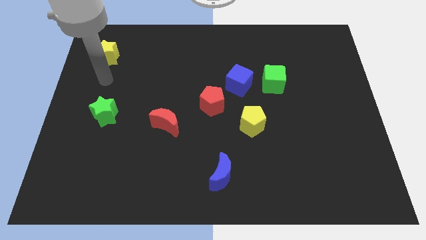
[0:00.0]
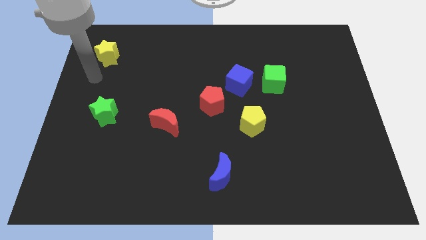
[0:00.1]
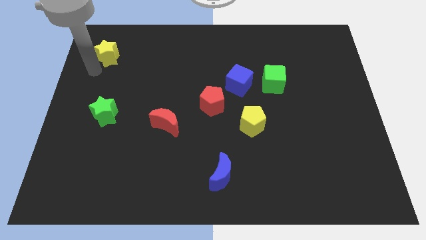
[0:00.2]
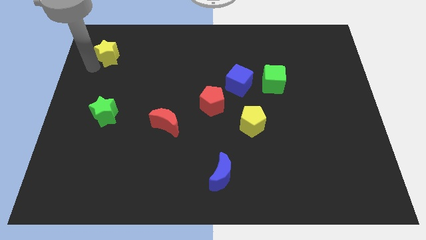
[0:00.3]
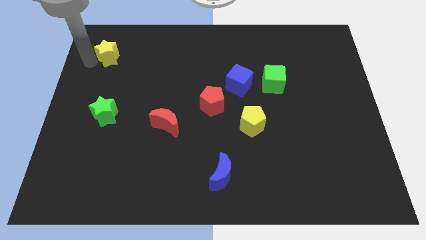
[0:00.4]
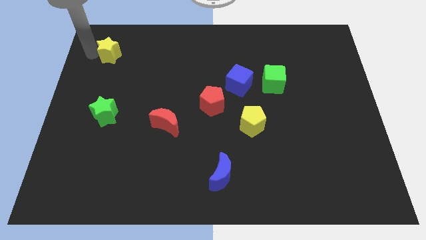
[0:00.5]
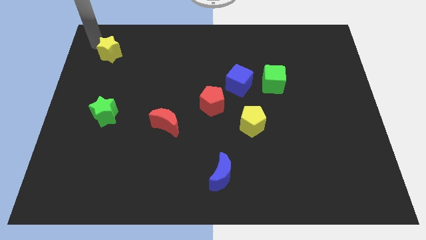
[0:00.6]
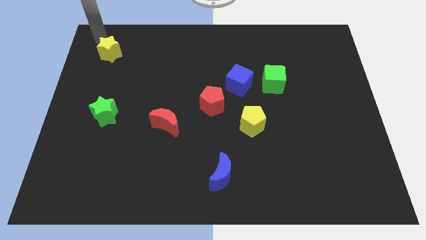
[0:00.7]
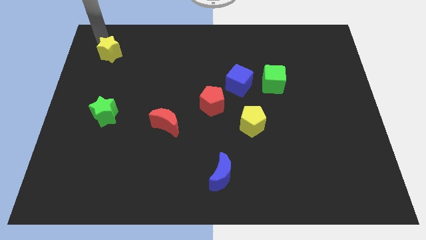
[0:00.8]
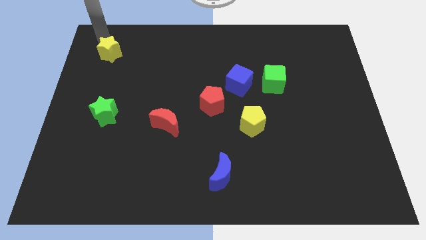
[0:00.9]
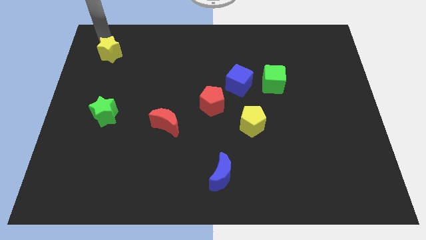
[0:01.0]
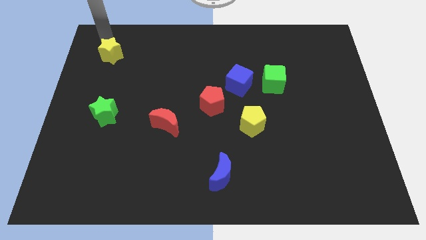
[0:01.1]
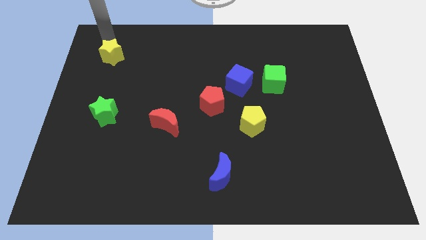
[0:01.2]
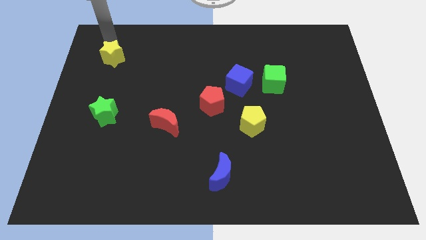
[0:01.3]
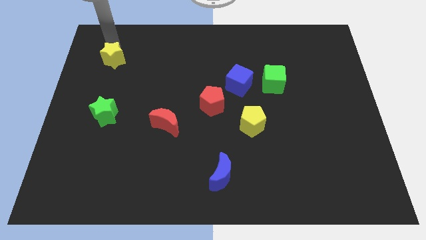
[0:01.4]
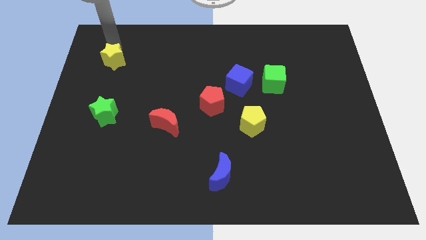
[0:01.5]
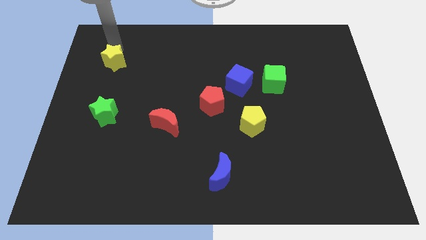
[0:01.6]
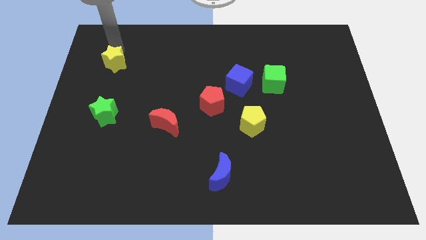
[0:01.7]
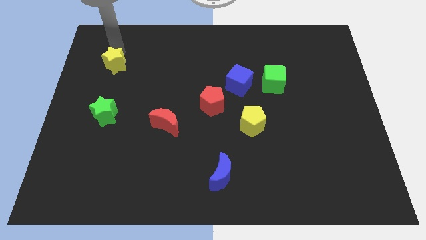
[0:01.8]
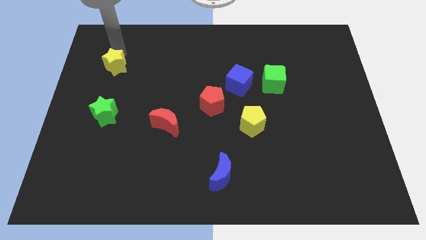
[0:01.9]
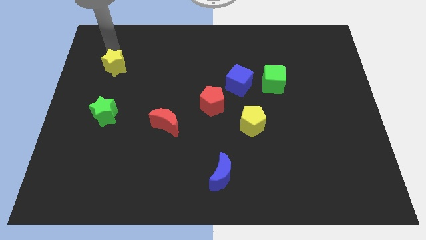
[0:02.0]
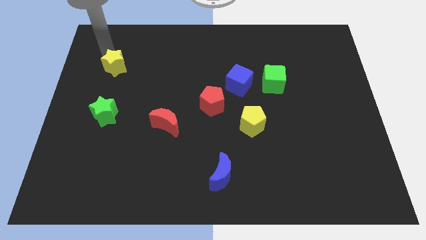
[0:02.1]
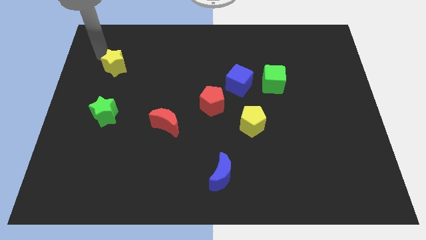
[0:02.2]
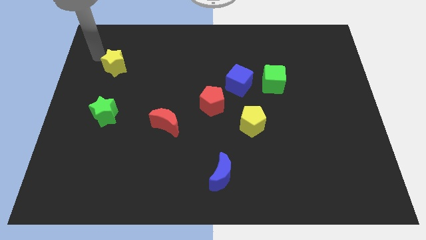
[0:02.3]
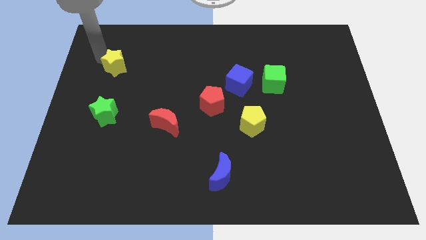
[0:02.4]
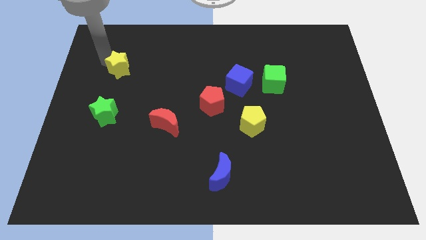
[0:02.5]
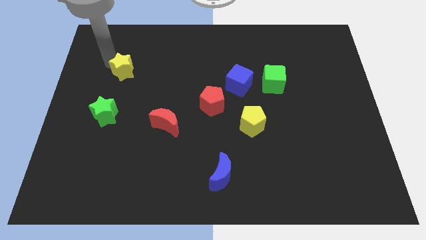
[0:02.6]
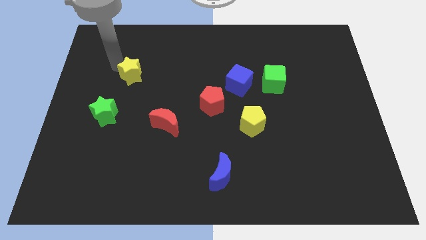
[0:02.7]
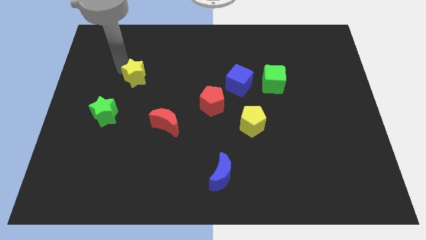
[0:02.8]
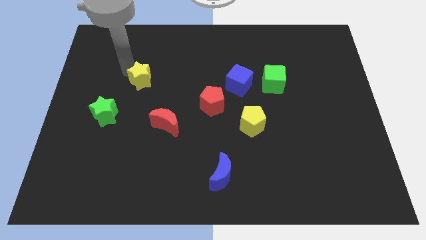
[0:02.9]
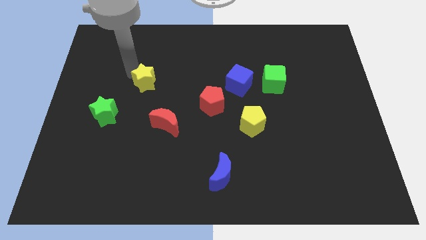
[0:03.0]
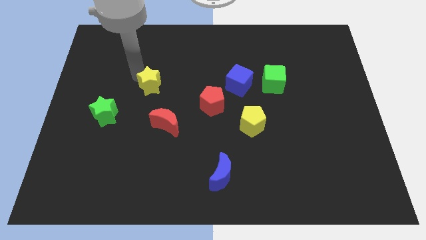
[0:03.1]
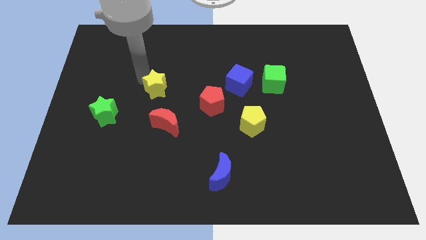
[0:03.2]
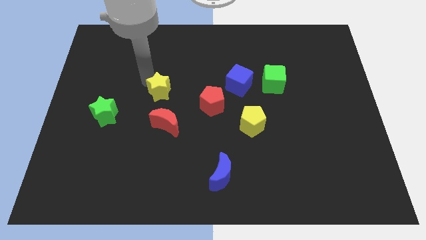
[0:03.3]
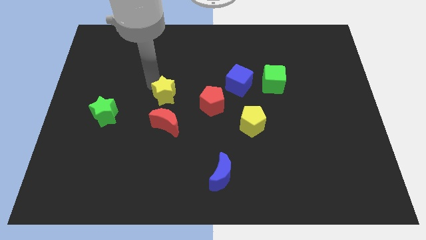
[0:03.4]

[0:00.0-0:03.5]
push the yellow star downwards and right

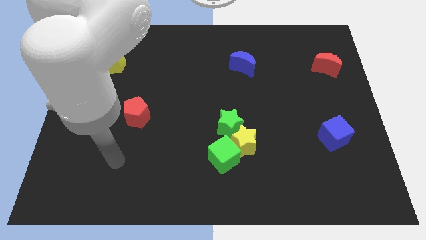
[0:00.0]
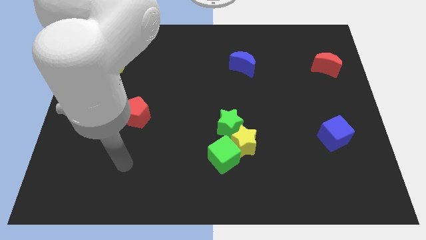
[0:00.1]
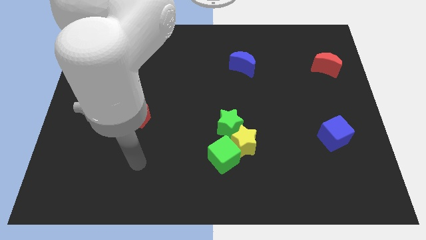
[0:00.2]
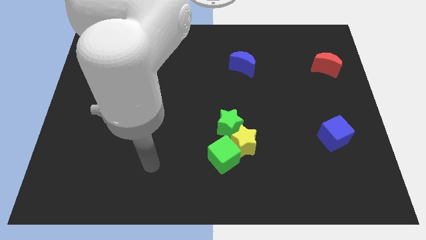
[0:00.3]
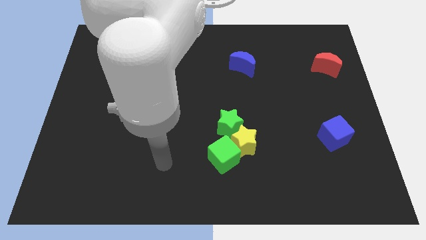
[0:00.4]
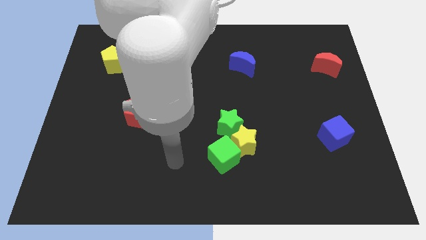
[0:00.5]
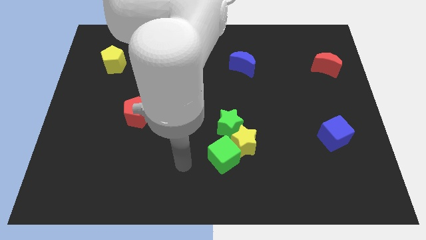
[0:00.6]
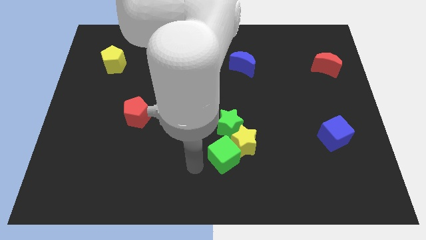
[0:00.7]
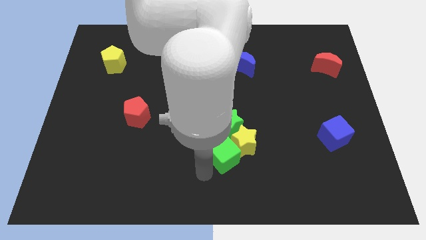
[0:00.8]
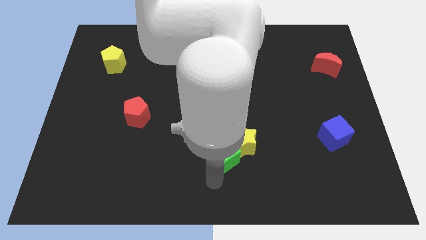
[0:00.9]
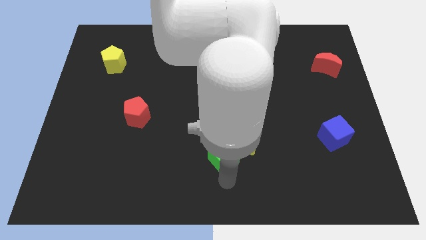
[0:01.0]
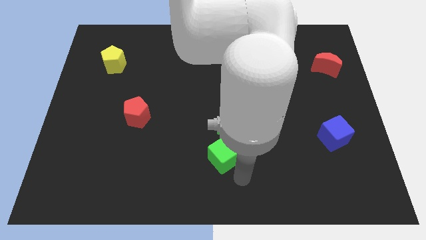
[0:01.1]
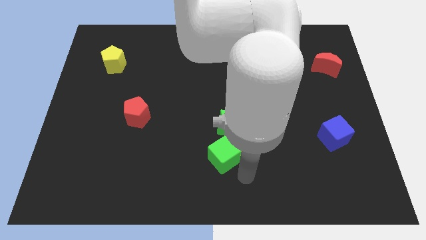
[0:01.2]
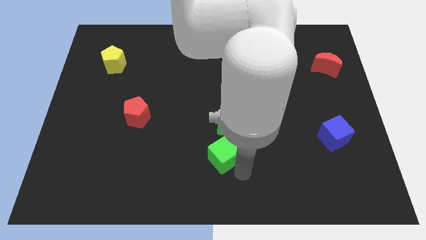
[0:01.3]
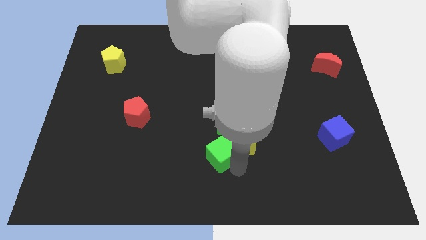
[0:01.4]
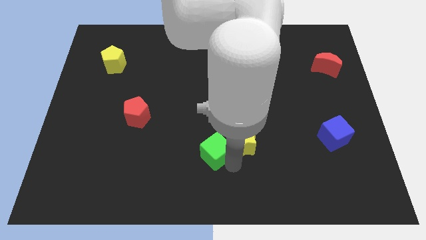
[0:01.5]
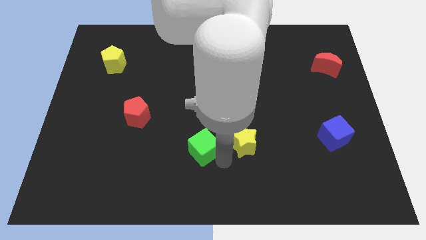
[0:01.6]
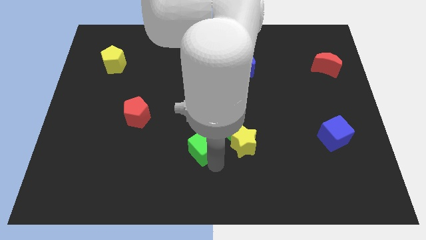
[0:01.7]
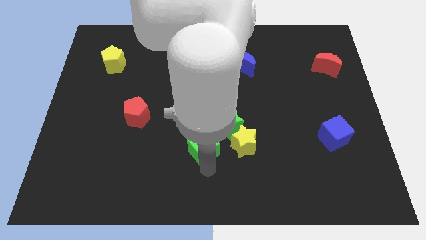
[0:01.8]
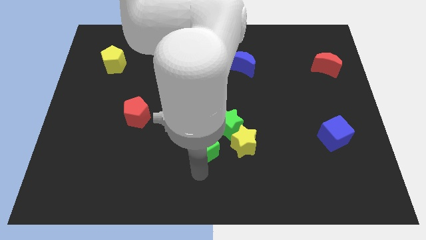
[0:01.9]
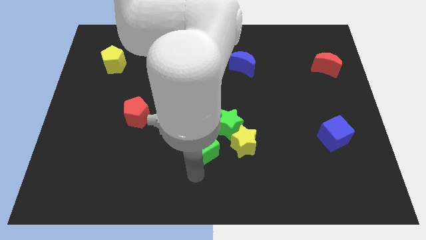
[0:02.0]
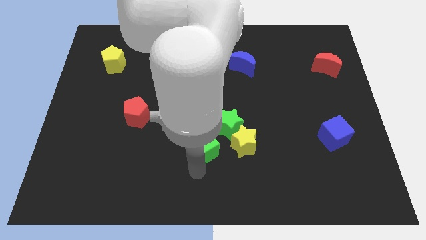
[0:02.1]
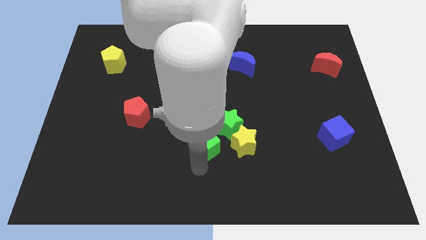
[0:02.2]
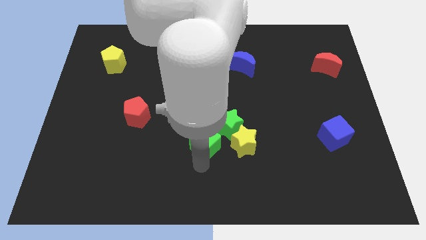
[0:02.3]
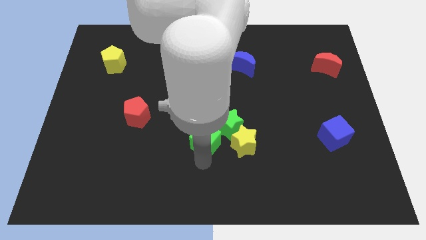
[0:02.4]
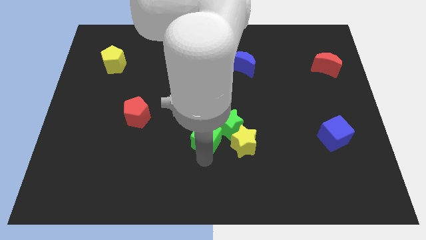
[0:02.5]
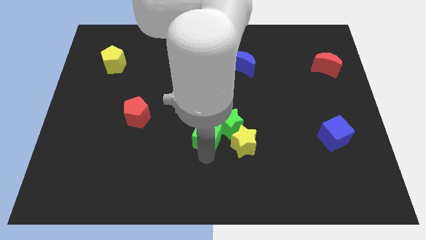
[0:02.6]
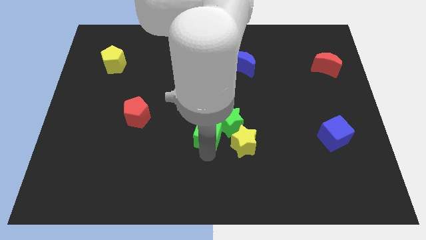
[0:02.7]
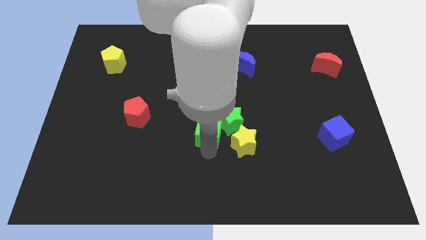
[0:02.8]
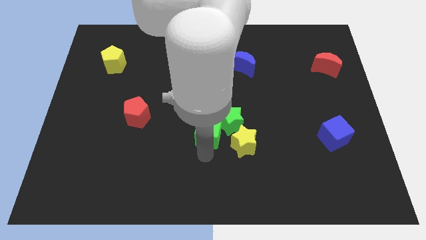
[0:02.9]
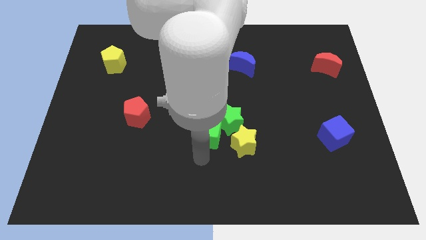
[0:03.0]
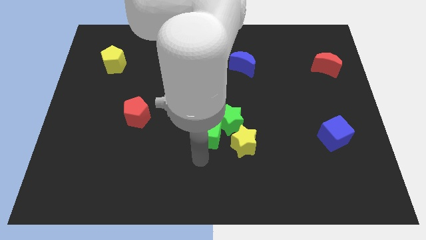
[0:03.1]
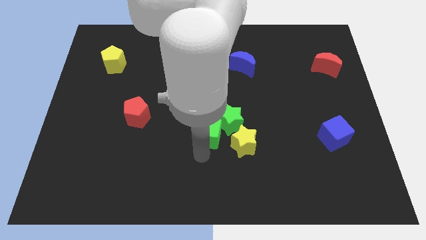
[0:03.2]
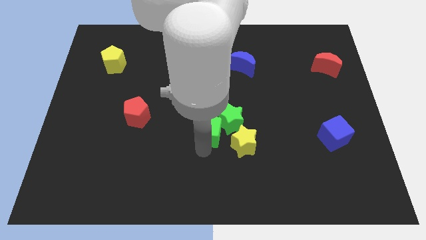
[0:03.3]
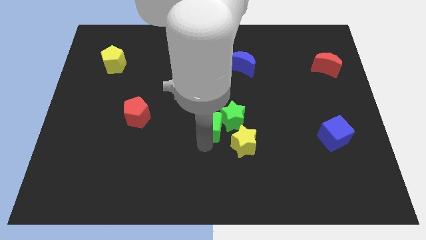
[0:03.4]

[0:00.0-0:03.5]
slide the green cube a little upwards

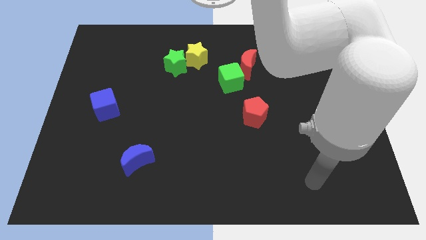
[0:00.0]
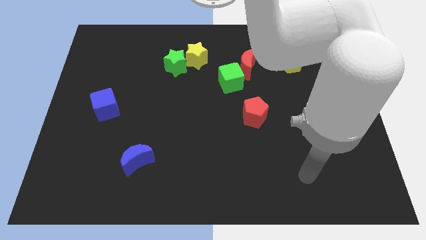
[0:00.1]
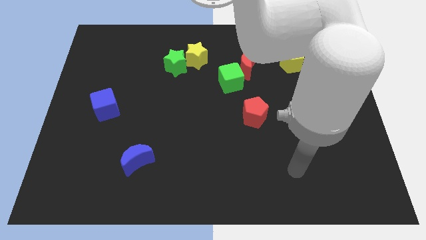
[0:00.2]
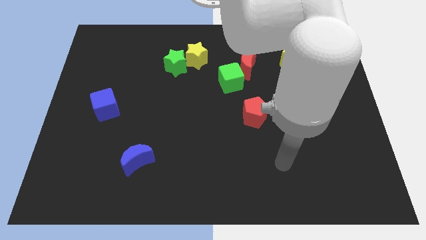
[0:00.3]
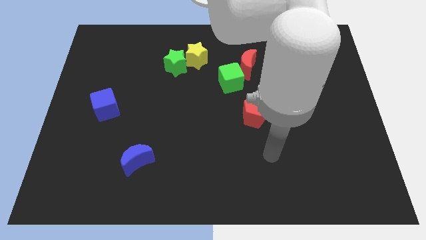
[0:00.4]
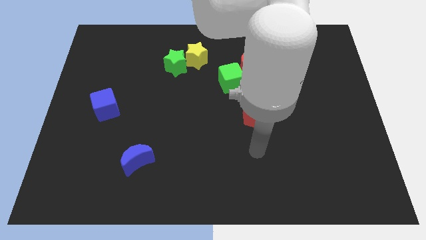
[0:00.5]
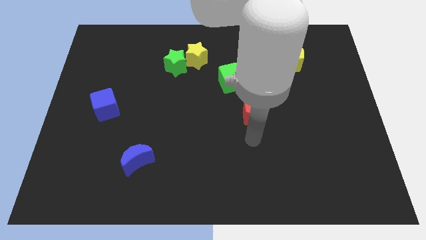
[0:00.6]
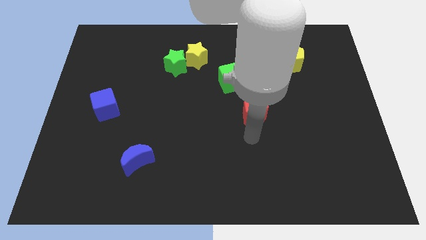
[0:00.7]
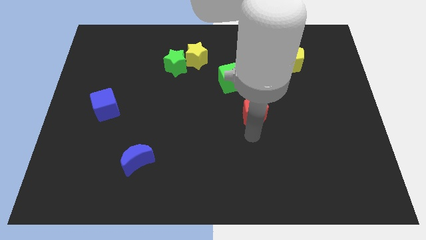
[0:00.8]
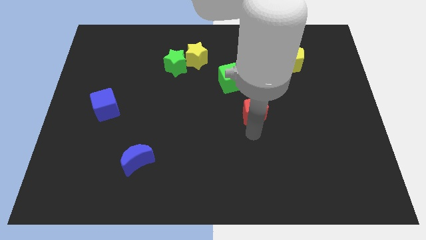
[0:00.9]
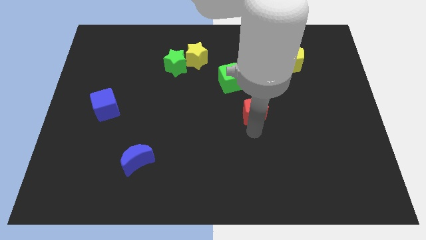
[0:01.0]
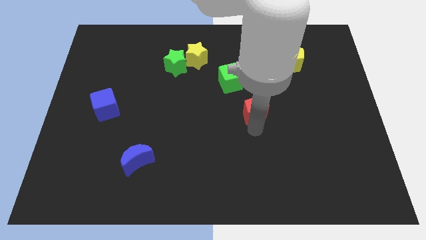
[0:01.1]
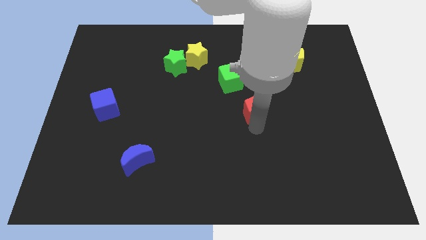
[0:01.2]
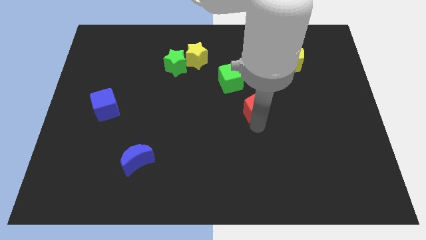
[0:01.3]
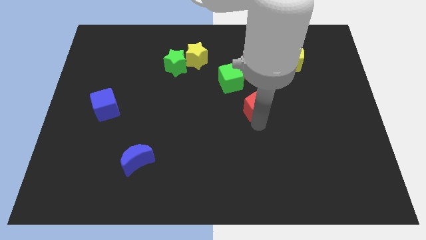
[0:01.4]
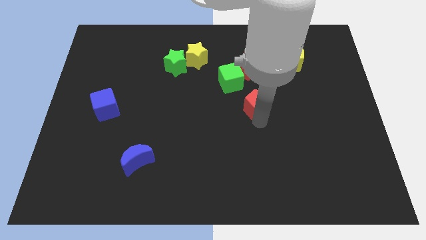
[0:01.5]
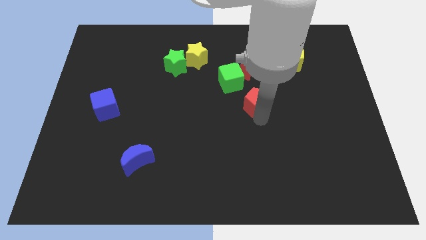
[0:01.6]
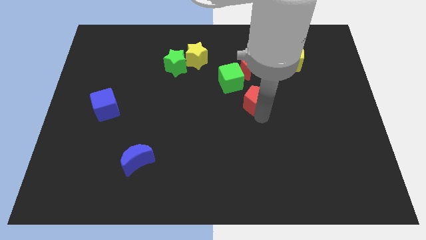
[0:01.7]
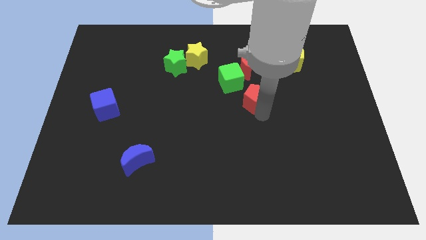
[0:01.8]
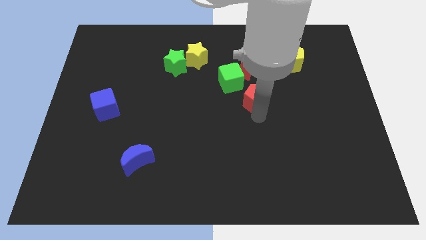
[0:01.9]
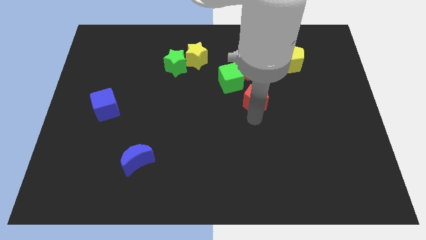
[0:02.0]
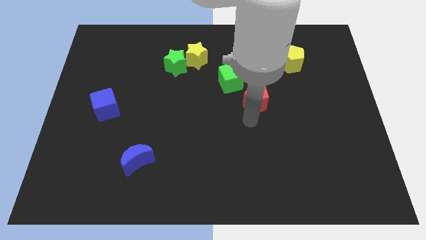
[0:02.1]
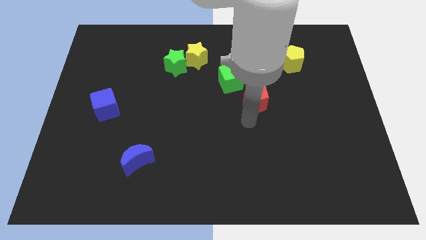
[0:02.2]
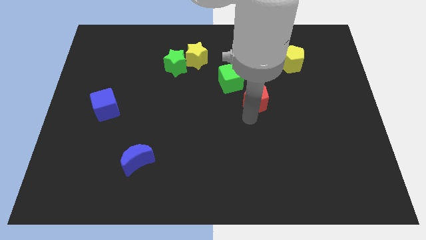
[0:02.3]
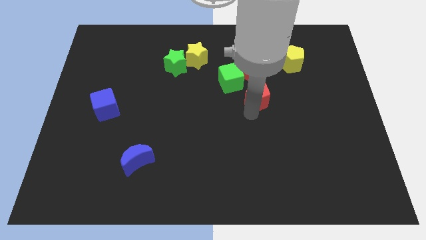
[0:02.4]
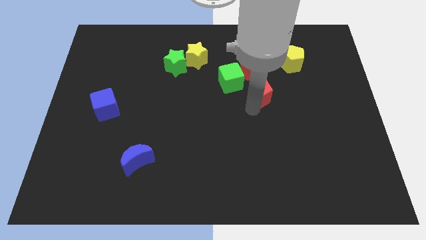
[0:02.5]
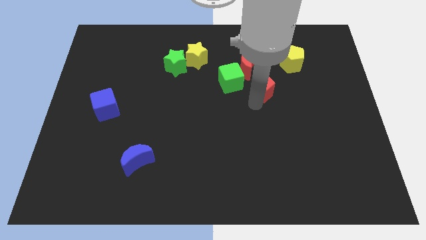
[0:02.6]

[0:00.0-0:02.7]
slide the red pentagon upwards a little bit
